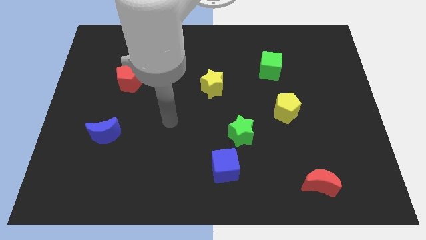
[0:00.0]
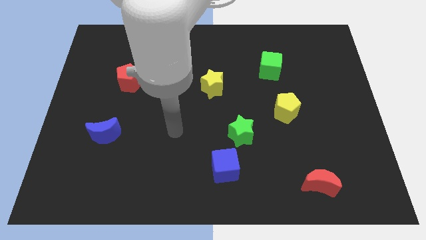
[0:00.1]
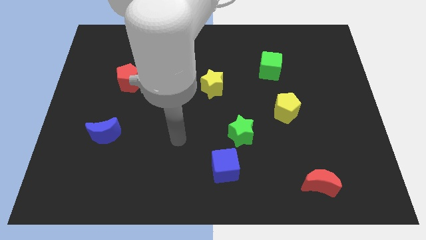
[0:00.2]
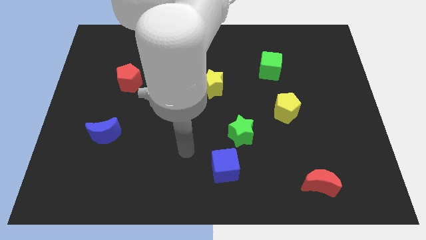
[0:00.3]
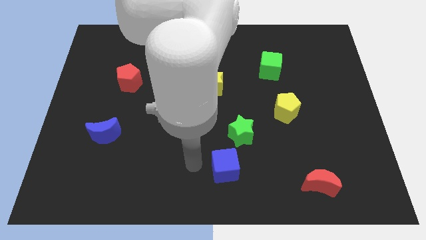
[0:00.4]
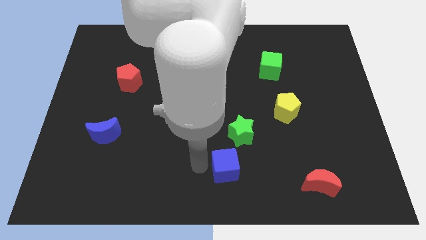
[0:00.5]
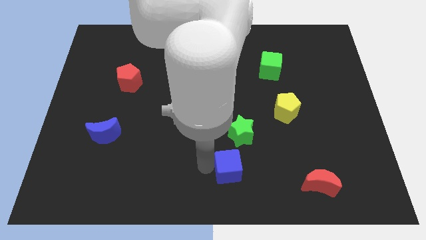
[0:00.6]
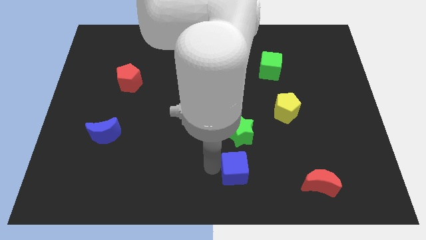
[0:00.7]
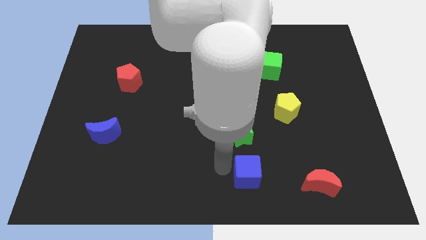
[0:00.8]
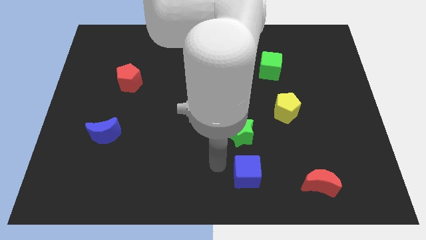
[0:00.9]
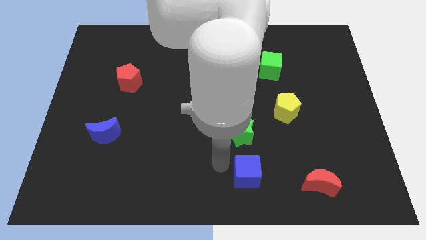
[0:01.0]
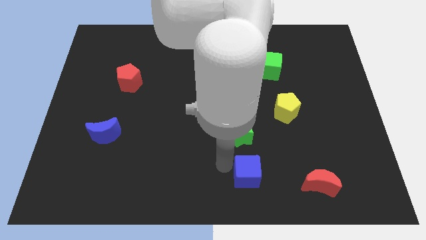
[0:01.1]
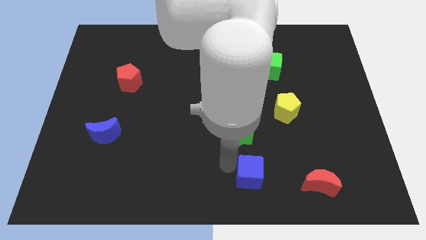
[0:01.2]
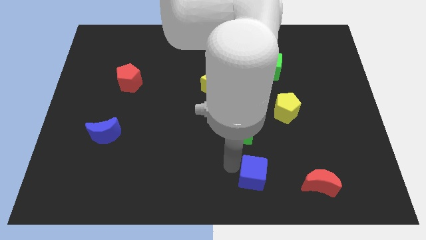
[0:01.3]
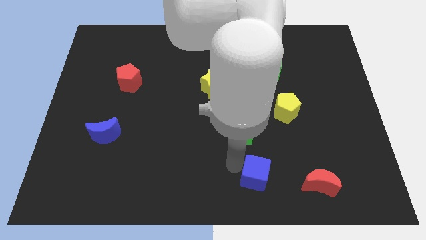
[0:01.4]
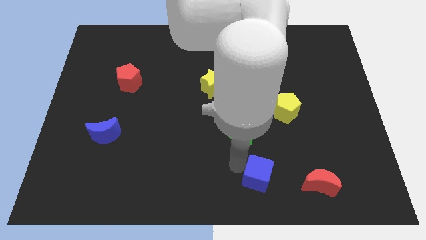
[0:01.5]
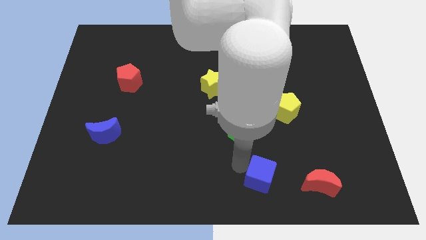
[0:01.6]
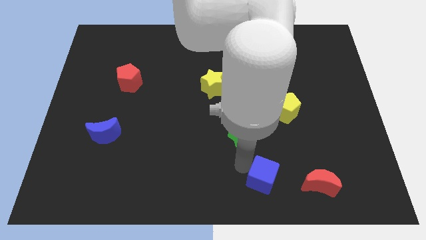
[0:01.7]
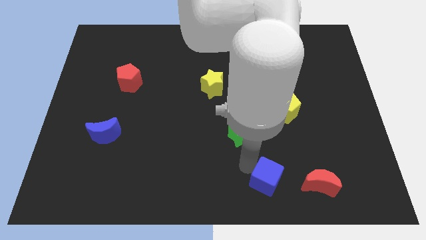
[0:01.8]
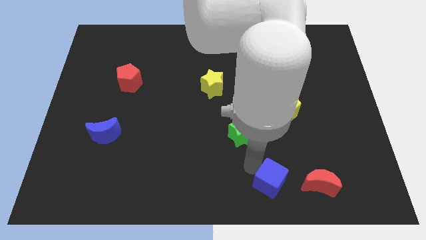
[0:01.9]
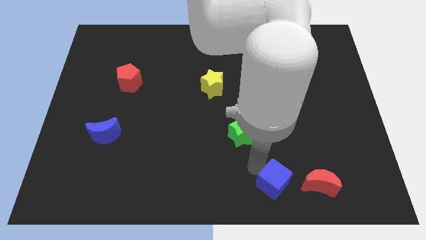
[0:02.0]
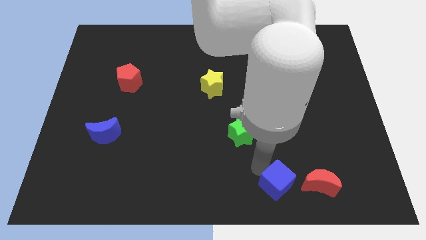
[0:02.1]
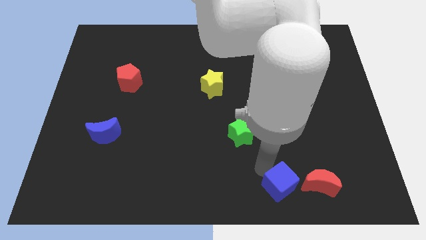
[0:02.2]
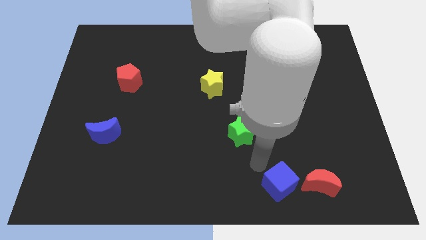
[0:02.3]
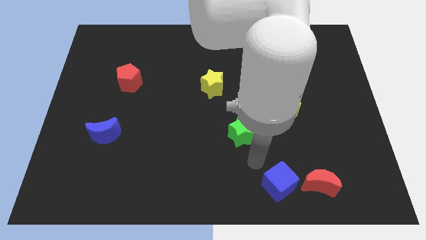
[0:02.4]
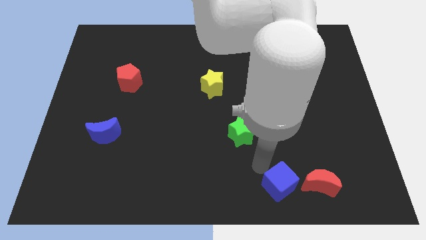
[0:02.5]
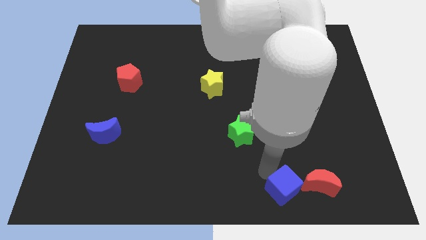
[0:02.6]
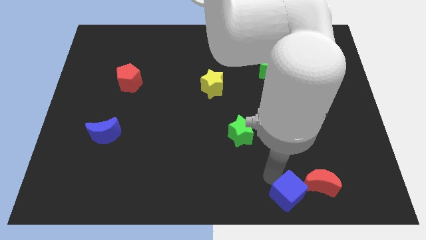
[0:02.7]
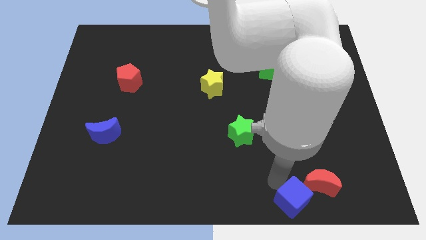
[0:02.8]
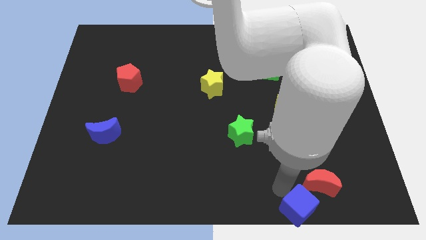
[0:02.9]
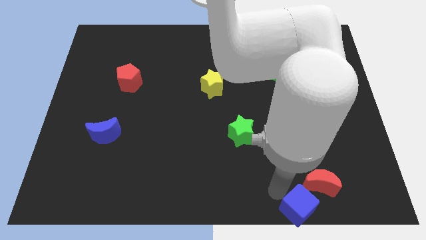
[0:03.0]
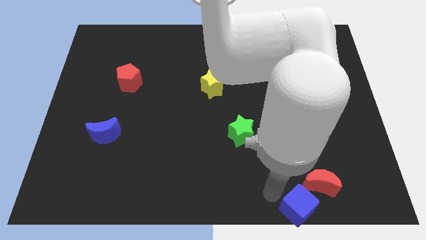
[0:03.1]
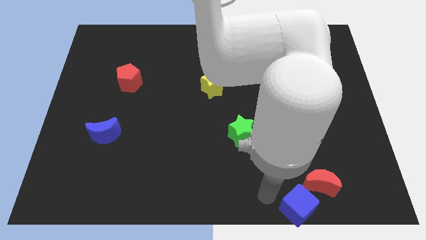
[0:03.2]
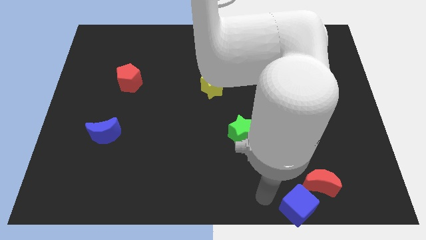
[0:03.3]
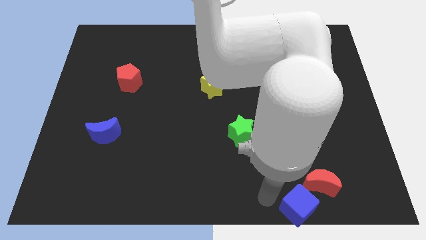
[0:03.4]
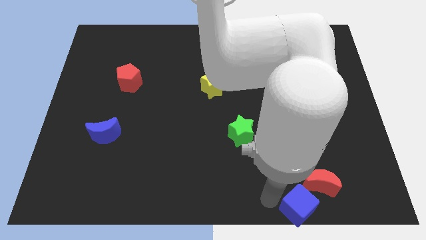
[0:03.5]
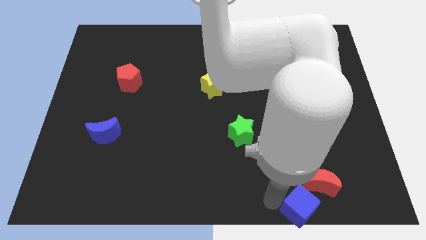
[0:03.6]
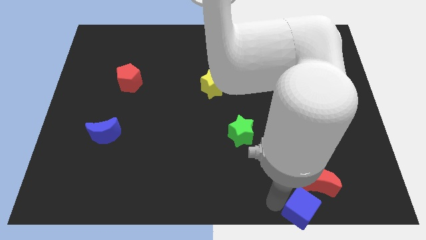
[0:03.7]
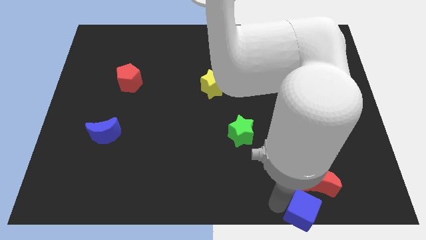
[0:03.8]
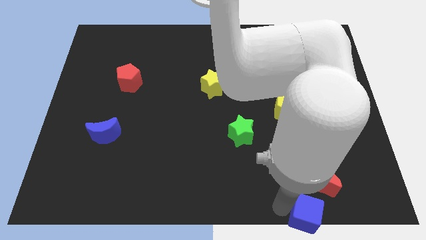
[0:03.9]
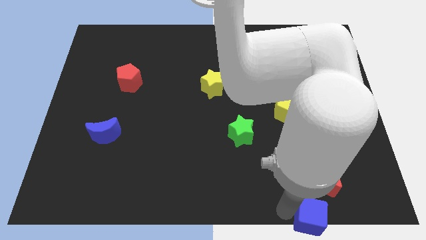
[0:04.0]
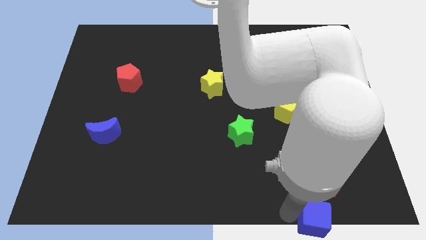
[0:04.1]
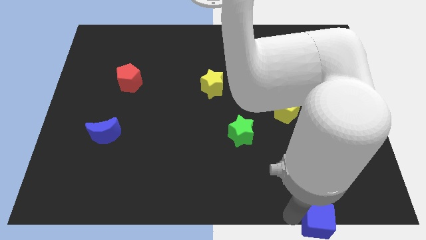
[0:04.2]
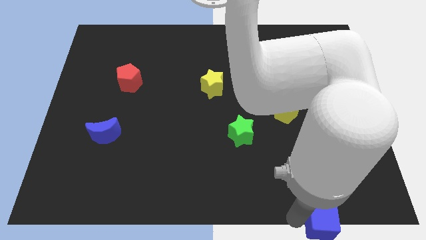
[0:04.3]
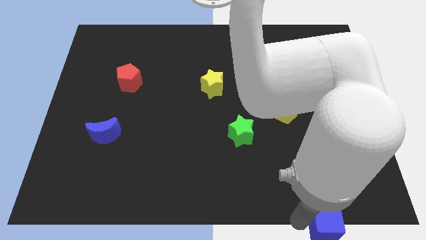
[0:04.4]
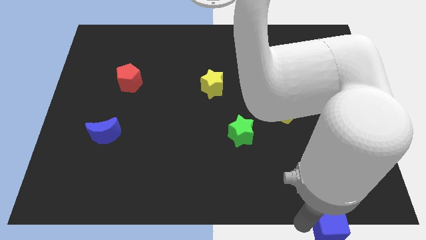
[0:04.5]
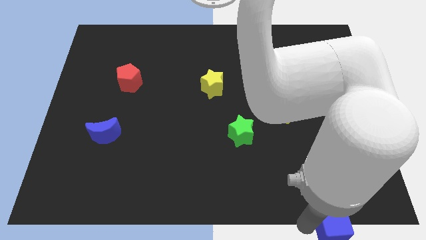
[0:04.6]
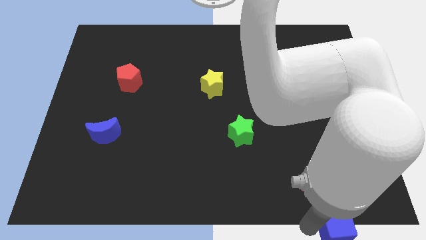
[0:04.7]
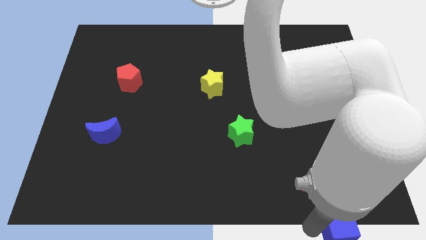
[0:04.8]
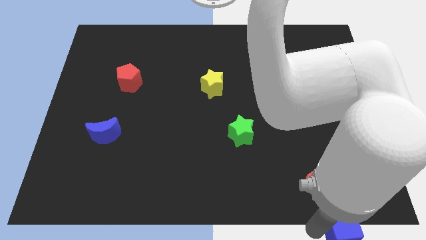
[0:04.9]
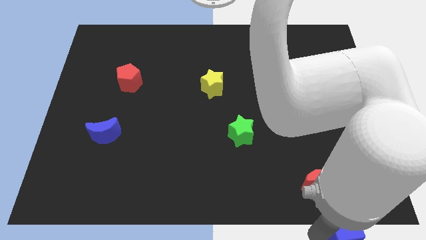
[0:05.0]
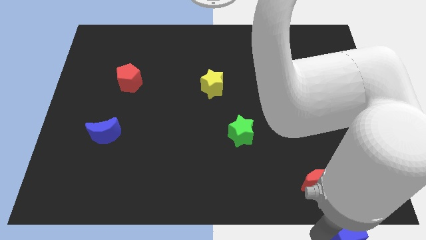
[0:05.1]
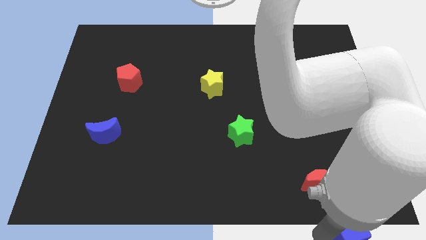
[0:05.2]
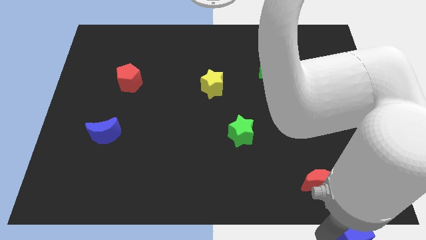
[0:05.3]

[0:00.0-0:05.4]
slide the blue cube to the bottom right of the board

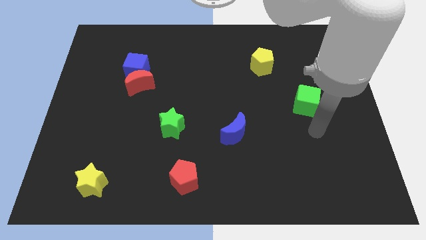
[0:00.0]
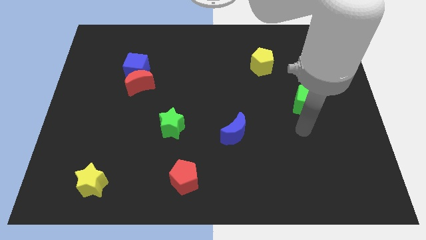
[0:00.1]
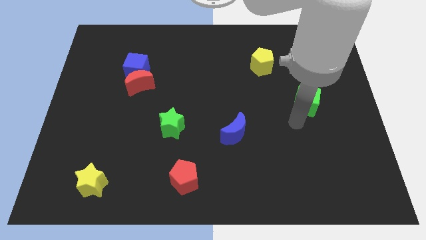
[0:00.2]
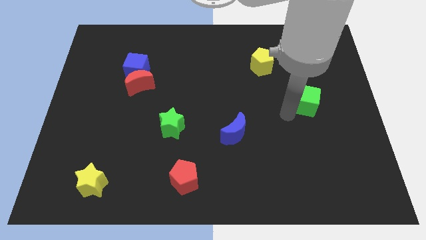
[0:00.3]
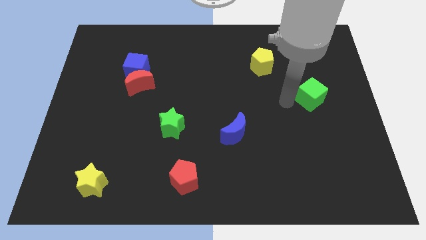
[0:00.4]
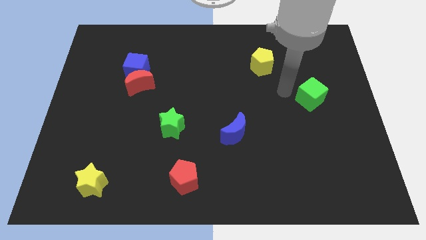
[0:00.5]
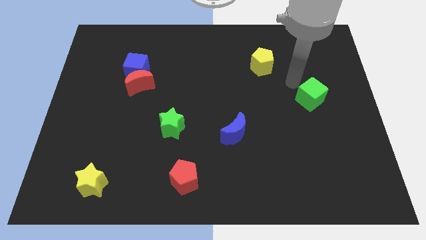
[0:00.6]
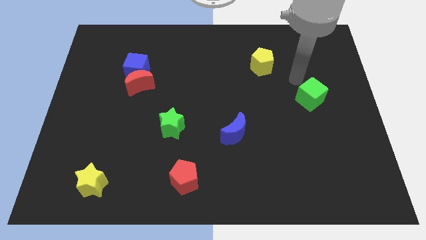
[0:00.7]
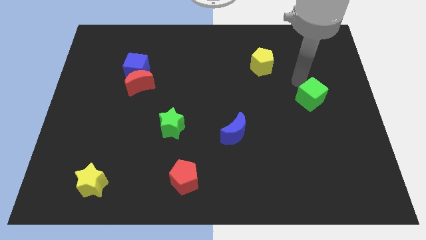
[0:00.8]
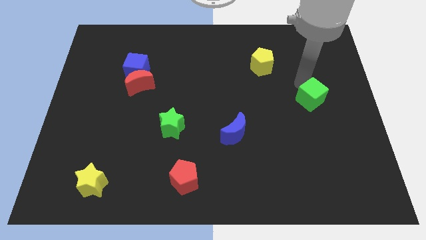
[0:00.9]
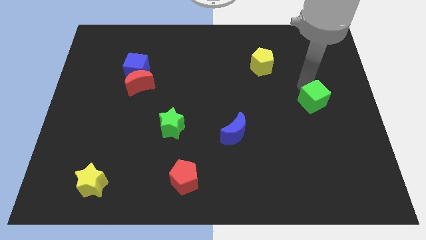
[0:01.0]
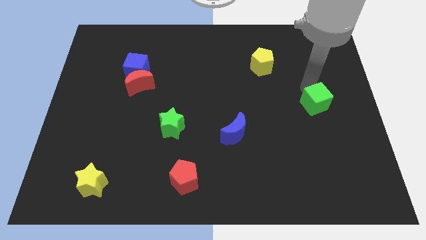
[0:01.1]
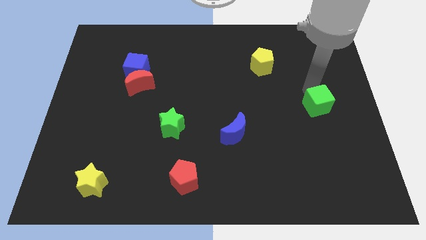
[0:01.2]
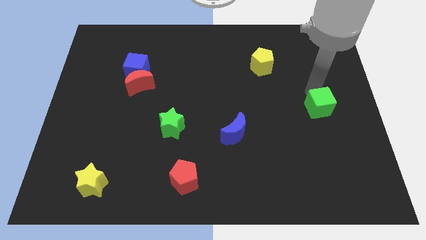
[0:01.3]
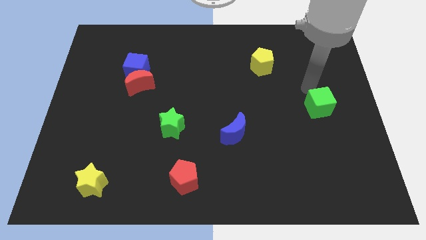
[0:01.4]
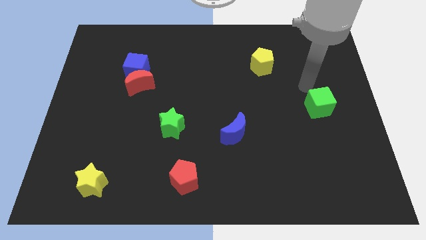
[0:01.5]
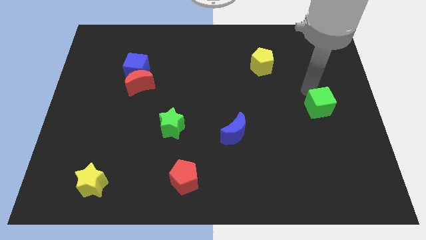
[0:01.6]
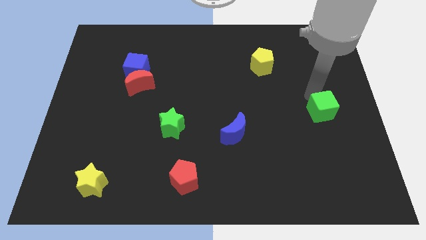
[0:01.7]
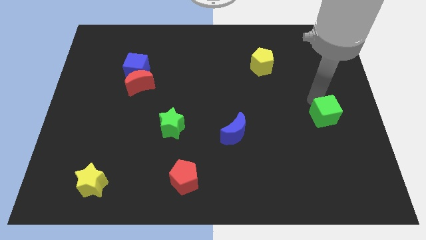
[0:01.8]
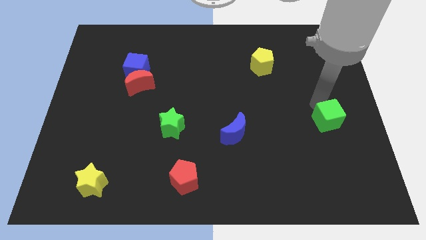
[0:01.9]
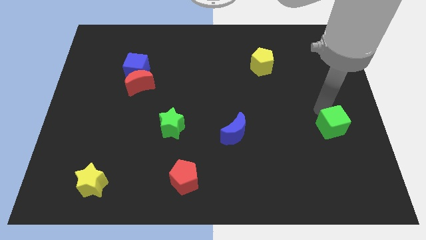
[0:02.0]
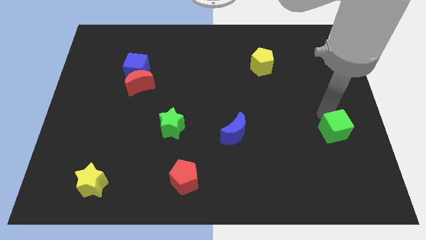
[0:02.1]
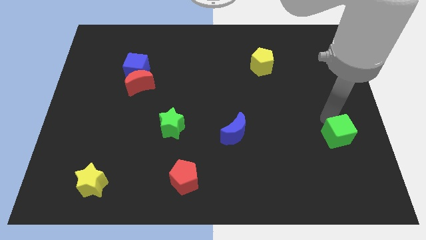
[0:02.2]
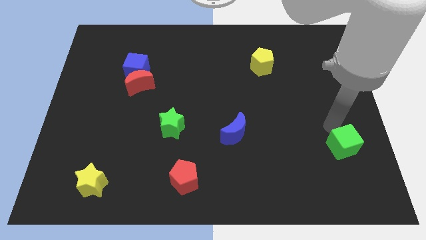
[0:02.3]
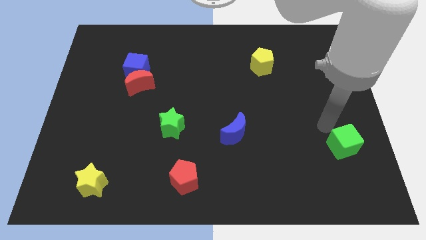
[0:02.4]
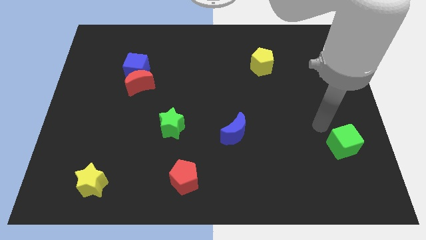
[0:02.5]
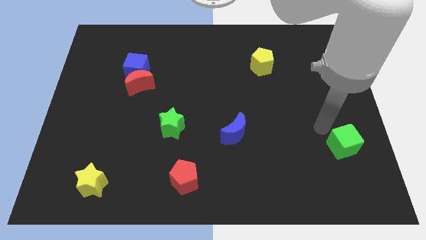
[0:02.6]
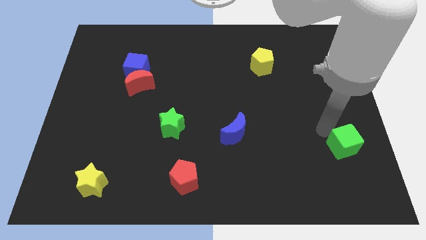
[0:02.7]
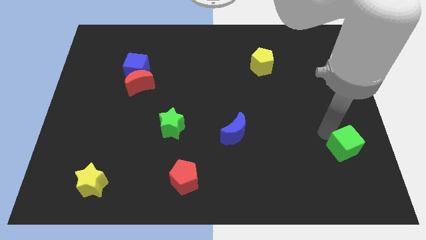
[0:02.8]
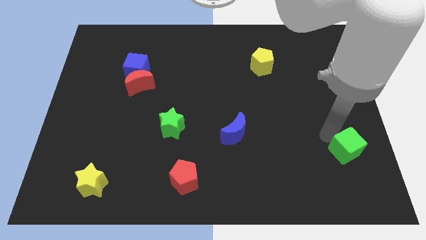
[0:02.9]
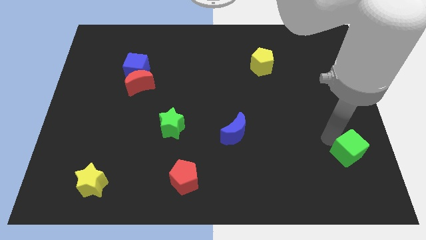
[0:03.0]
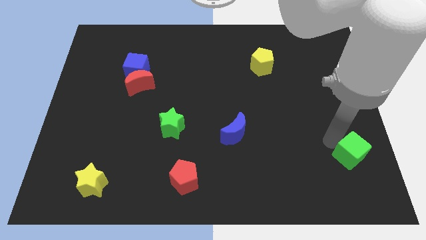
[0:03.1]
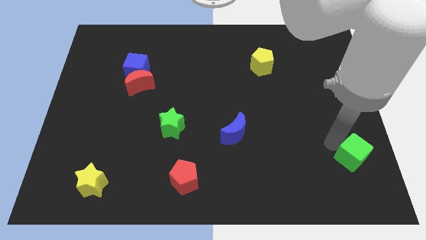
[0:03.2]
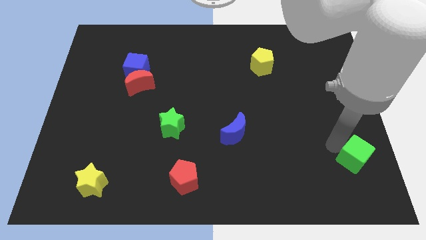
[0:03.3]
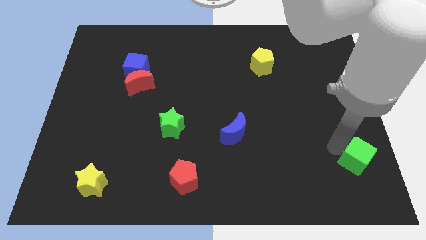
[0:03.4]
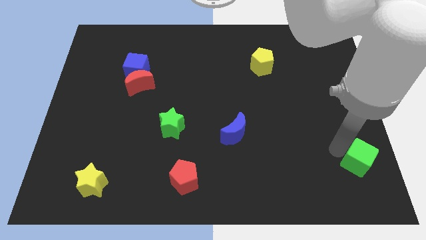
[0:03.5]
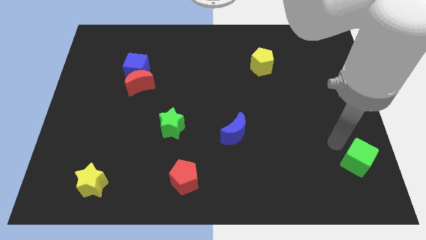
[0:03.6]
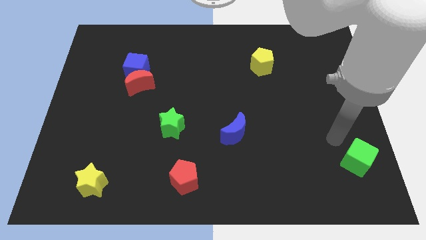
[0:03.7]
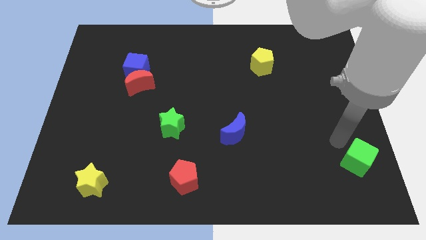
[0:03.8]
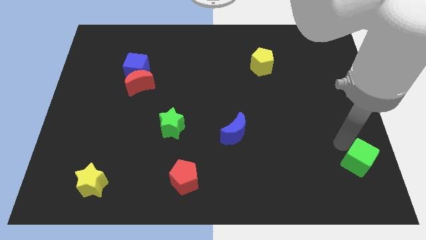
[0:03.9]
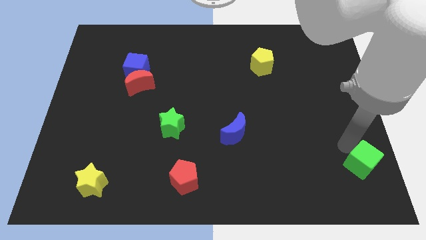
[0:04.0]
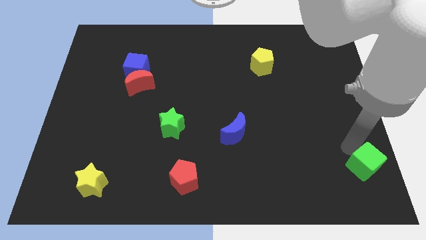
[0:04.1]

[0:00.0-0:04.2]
move the green cube to the bottom right of the board
